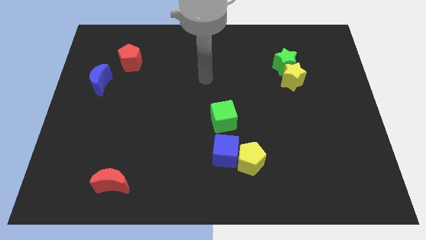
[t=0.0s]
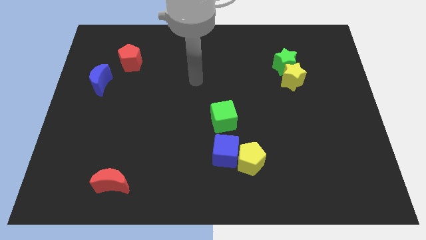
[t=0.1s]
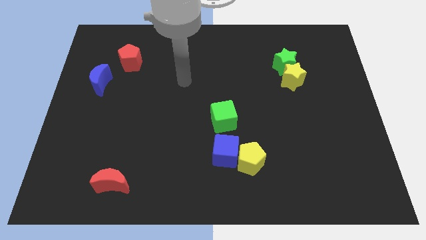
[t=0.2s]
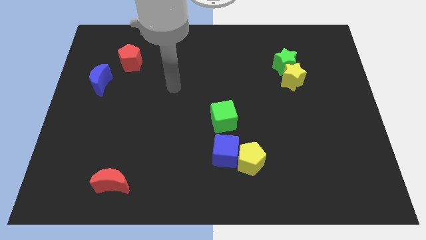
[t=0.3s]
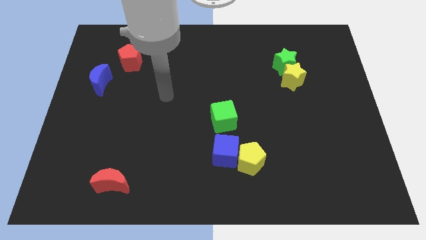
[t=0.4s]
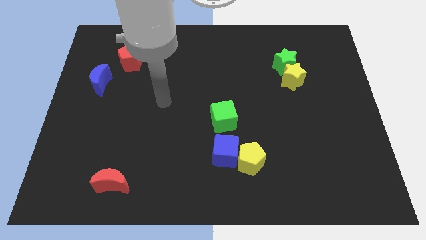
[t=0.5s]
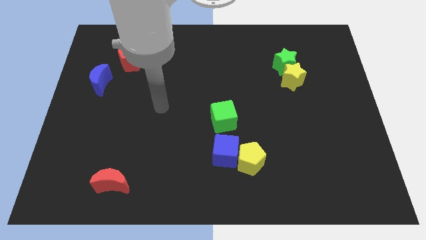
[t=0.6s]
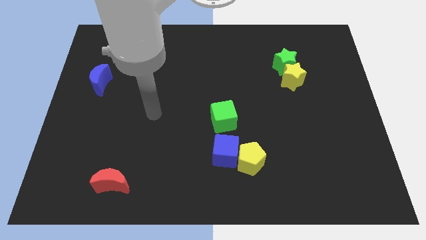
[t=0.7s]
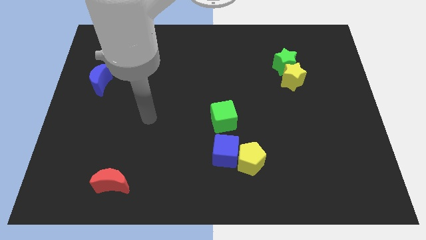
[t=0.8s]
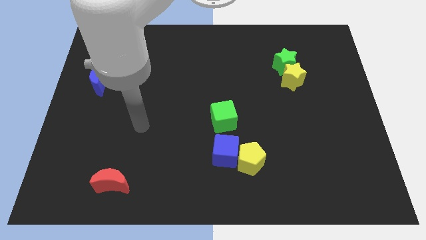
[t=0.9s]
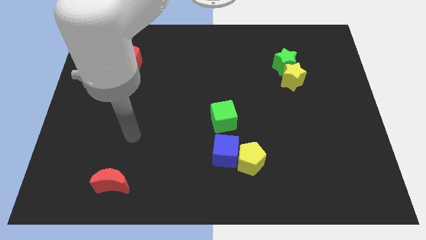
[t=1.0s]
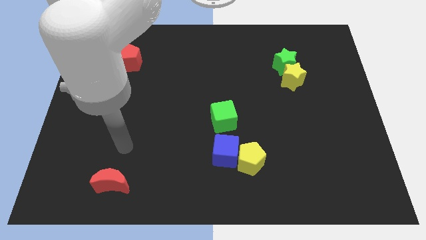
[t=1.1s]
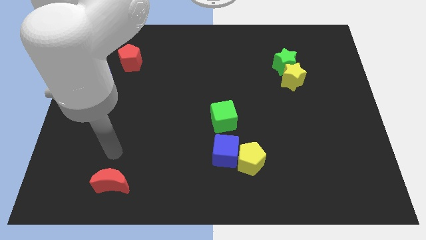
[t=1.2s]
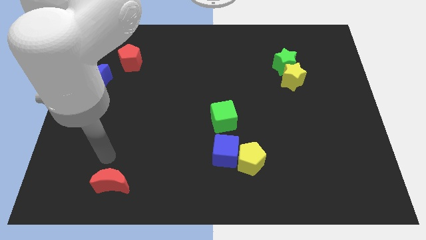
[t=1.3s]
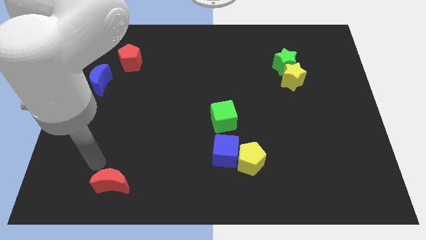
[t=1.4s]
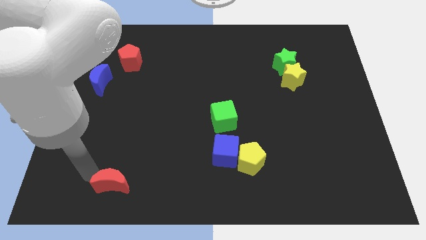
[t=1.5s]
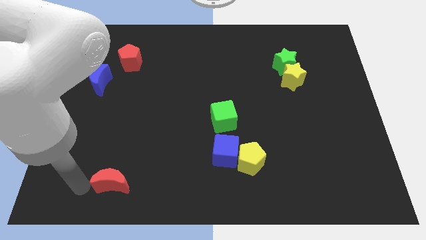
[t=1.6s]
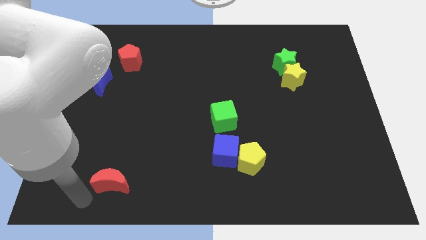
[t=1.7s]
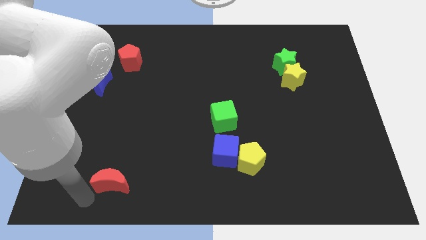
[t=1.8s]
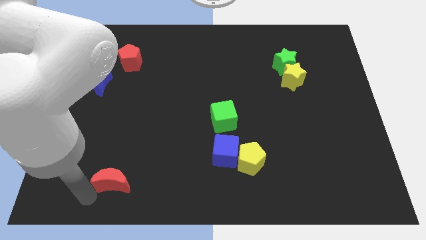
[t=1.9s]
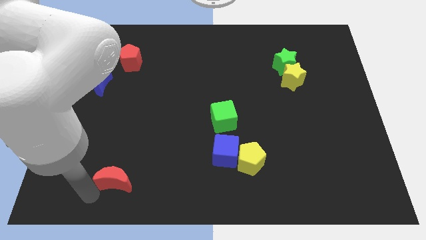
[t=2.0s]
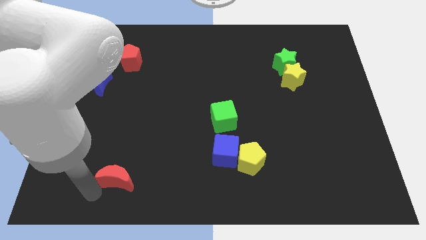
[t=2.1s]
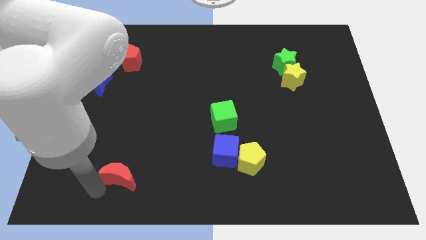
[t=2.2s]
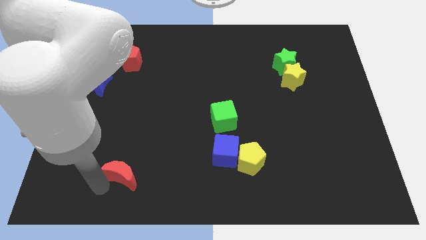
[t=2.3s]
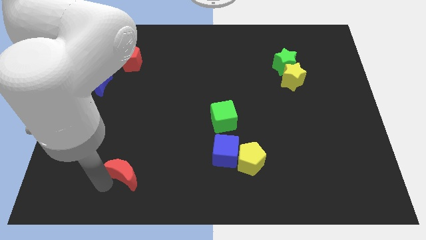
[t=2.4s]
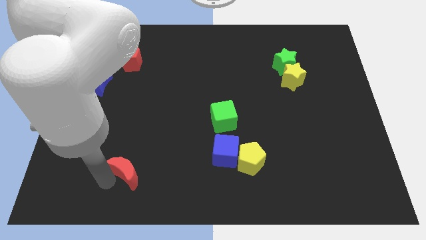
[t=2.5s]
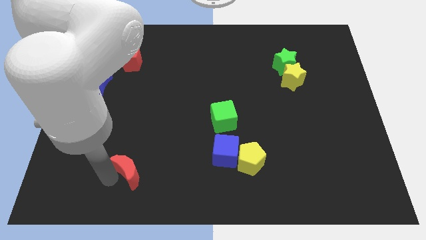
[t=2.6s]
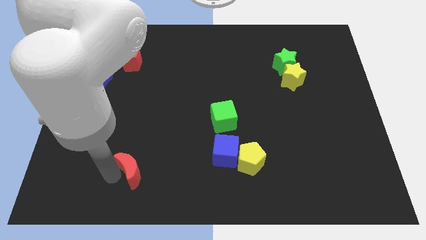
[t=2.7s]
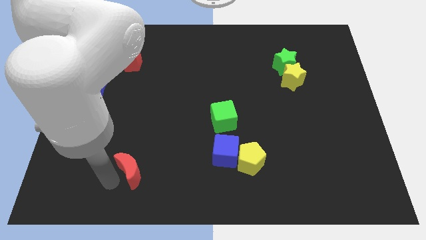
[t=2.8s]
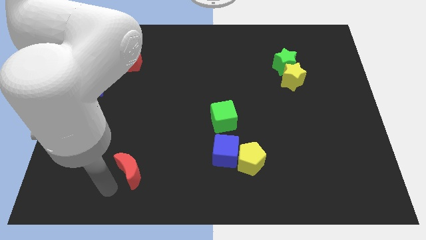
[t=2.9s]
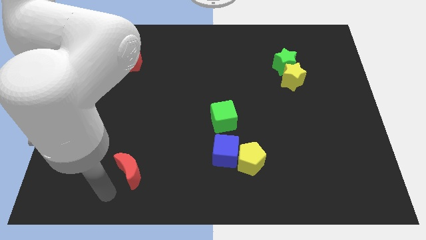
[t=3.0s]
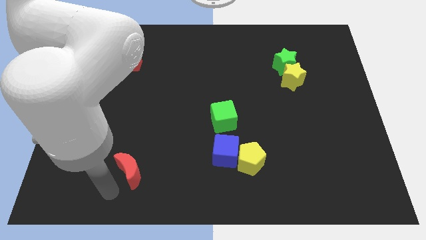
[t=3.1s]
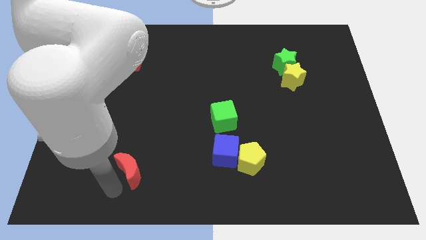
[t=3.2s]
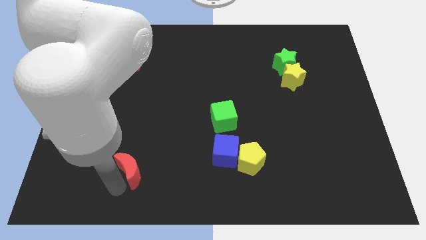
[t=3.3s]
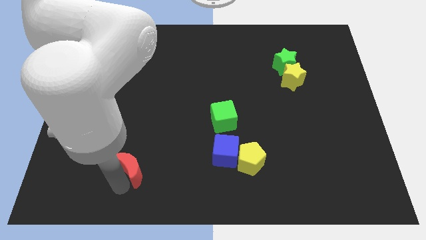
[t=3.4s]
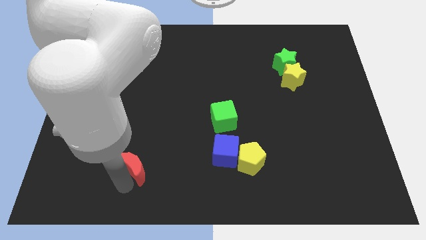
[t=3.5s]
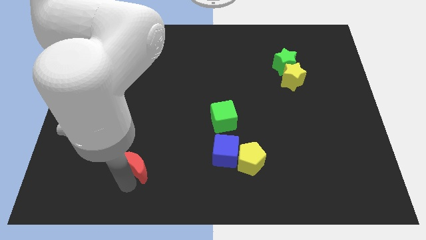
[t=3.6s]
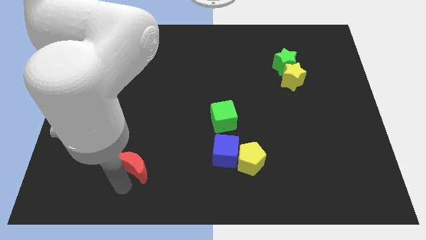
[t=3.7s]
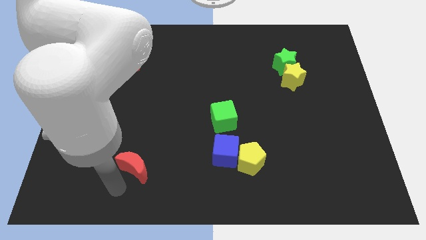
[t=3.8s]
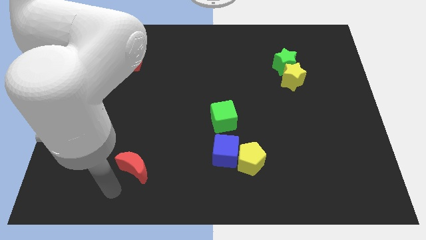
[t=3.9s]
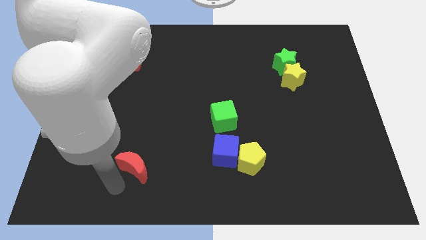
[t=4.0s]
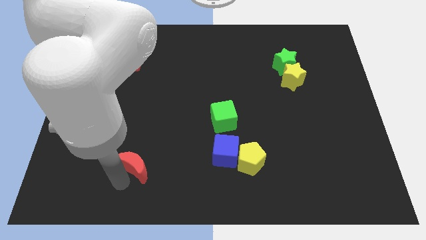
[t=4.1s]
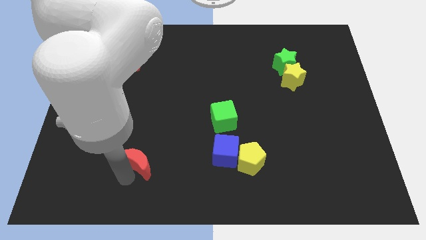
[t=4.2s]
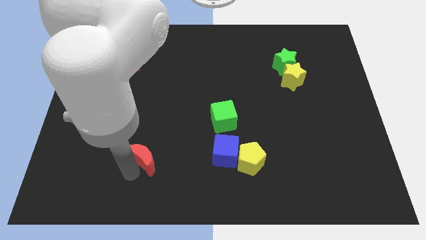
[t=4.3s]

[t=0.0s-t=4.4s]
push the red moon up and then to the right a little

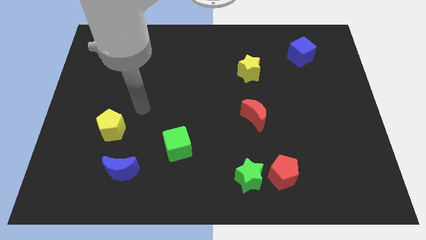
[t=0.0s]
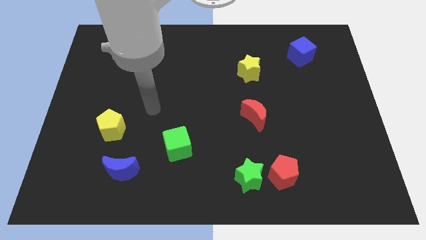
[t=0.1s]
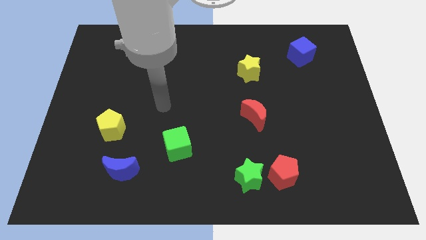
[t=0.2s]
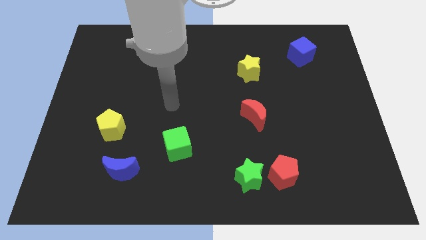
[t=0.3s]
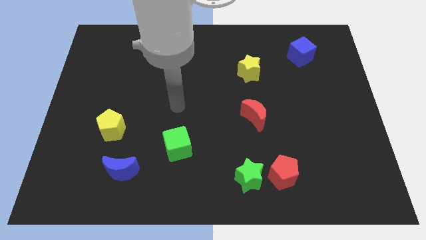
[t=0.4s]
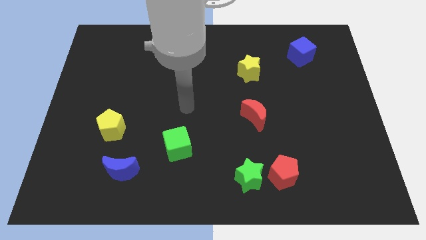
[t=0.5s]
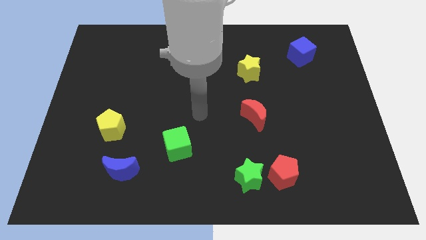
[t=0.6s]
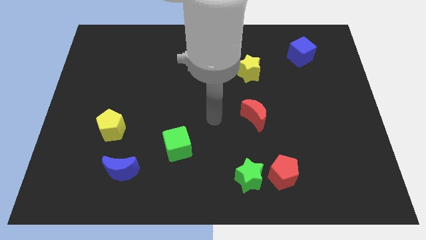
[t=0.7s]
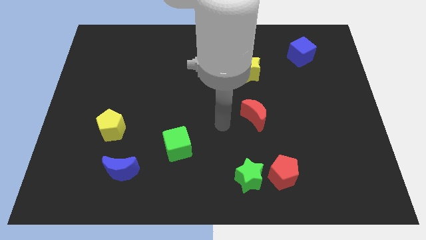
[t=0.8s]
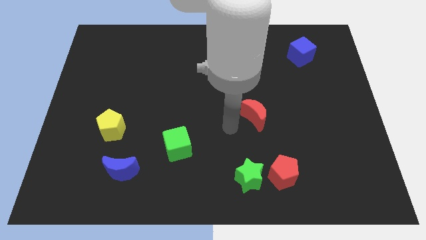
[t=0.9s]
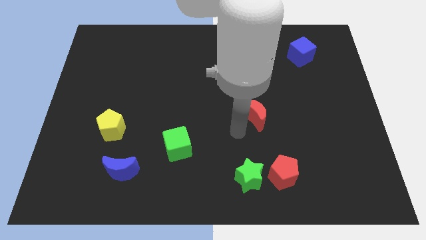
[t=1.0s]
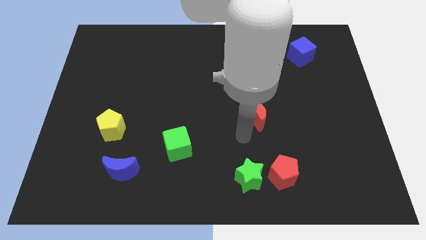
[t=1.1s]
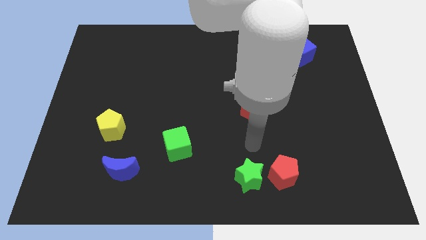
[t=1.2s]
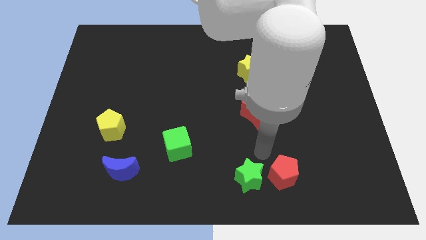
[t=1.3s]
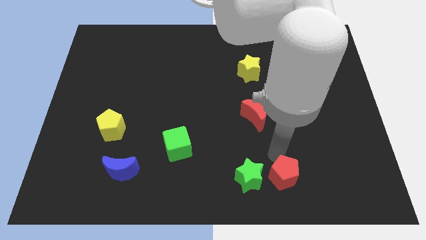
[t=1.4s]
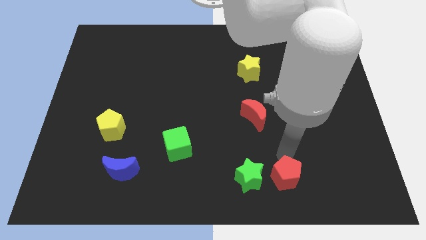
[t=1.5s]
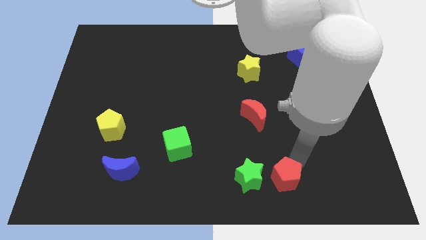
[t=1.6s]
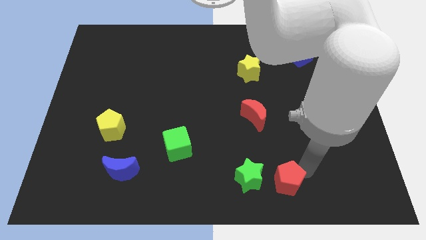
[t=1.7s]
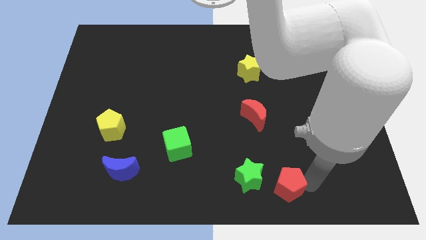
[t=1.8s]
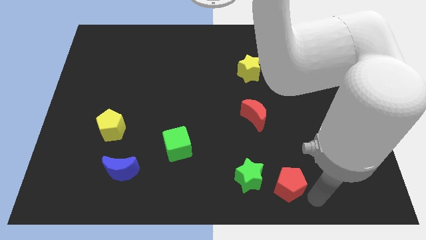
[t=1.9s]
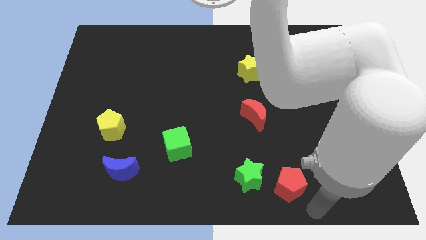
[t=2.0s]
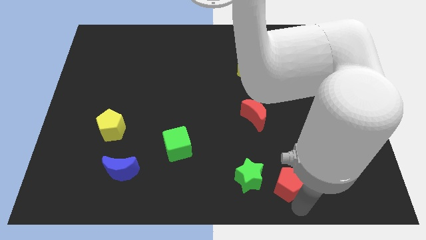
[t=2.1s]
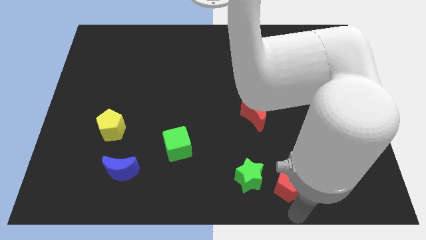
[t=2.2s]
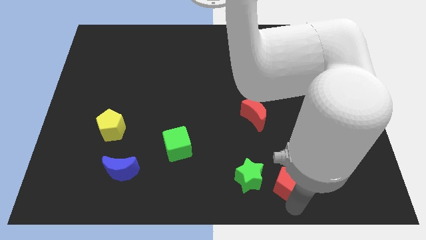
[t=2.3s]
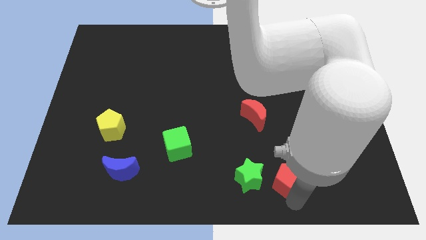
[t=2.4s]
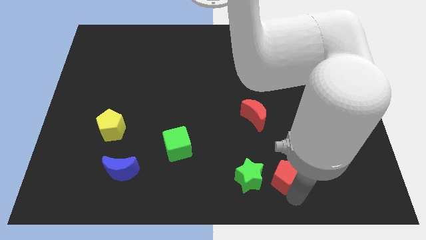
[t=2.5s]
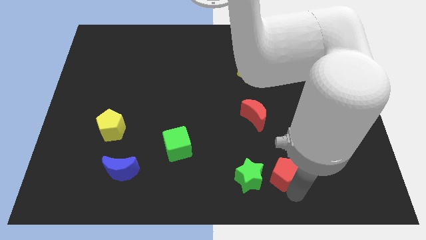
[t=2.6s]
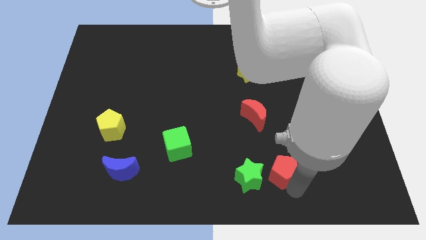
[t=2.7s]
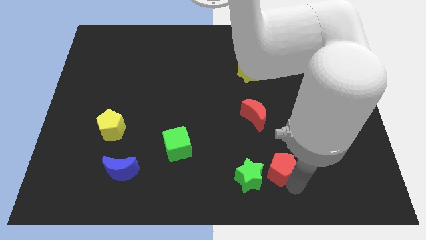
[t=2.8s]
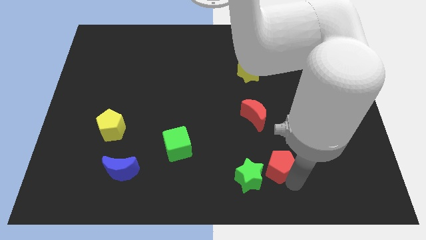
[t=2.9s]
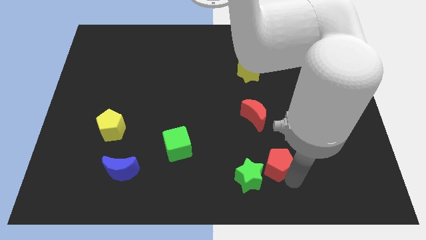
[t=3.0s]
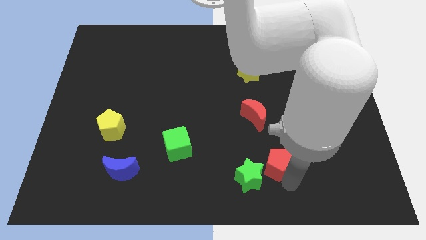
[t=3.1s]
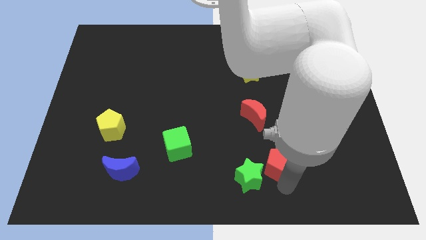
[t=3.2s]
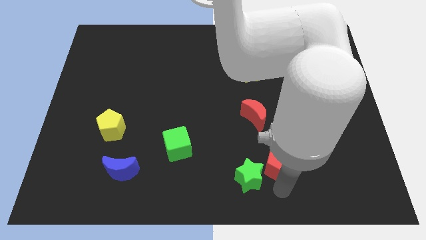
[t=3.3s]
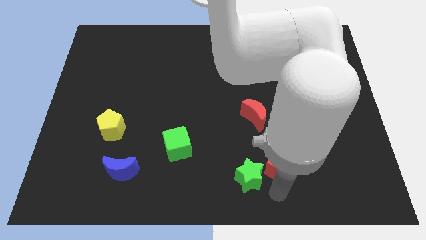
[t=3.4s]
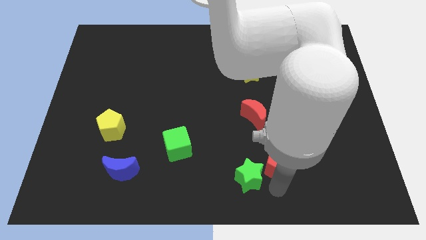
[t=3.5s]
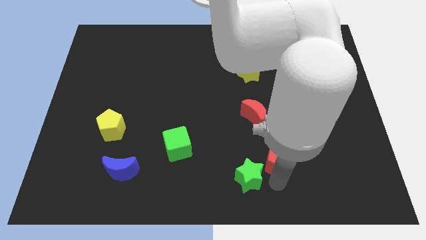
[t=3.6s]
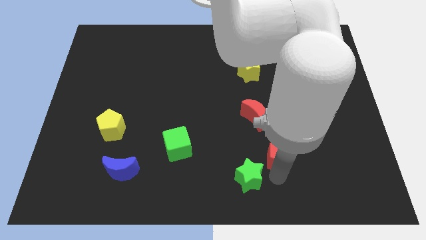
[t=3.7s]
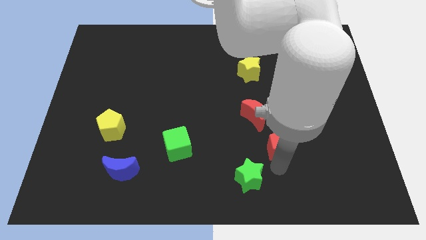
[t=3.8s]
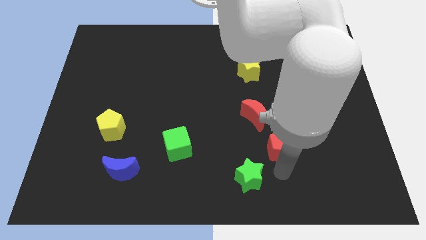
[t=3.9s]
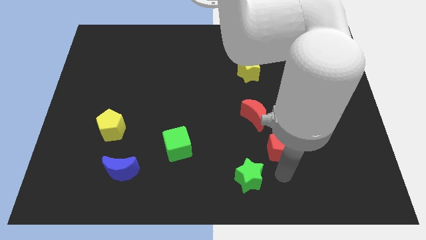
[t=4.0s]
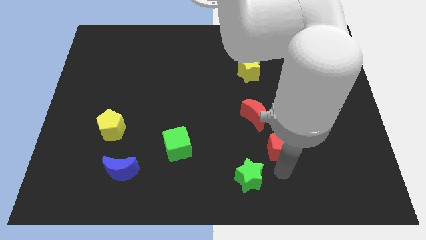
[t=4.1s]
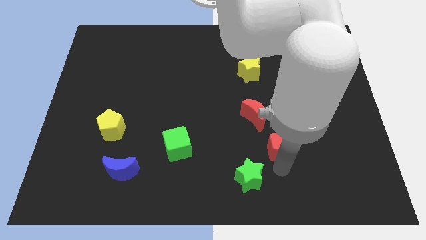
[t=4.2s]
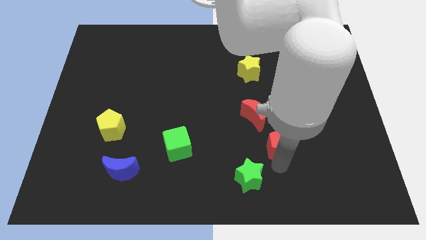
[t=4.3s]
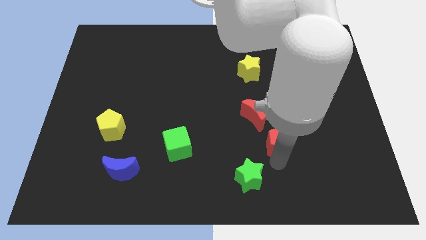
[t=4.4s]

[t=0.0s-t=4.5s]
slightly move the red pentagon upwards
